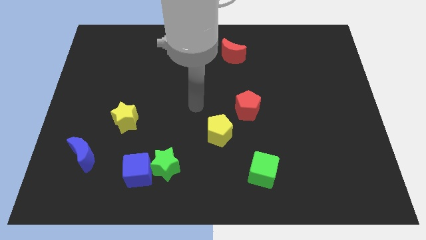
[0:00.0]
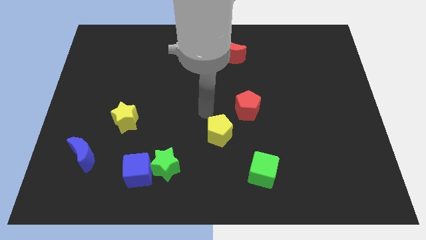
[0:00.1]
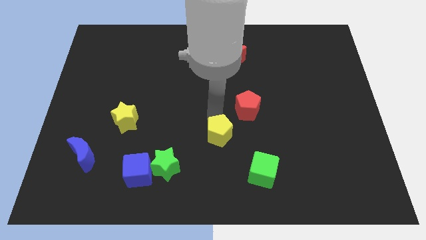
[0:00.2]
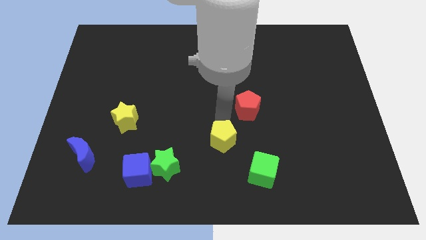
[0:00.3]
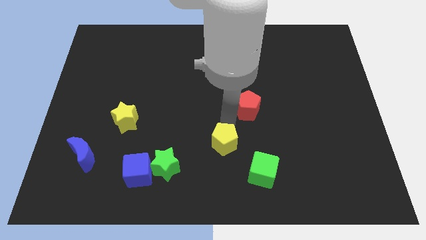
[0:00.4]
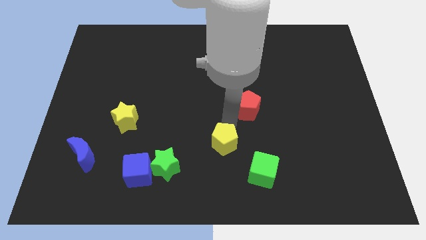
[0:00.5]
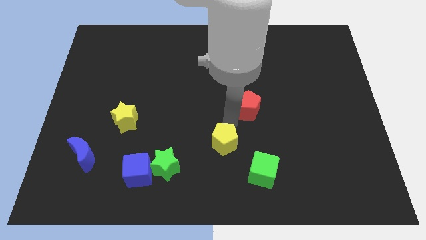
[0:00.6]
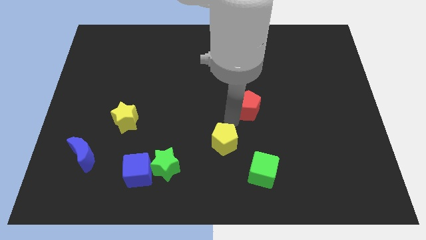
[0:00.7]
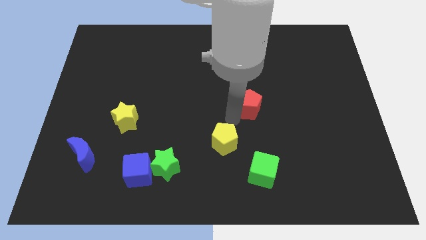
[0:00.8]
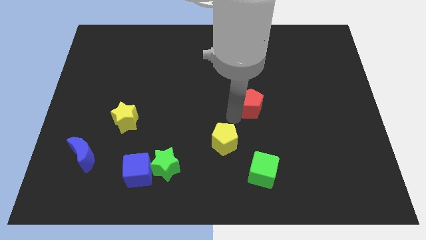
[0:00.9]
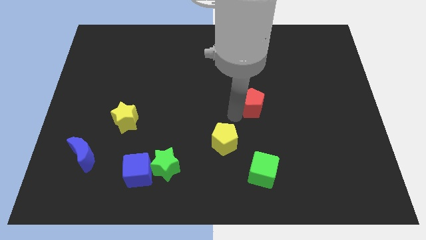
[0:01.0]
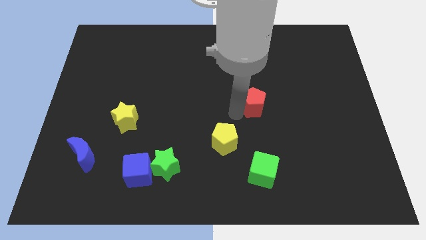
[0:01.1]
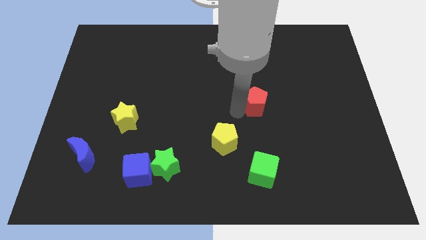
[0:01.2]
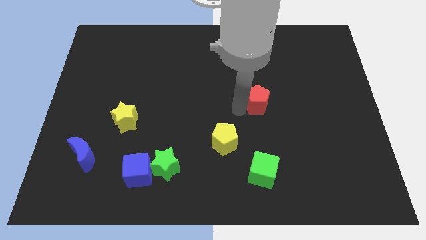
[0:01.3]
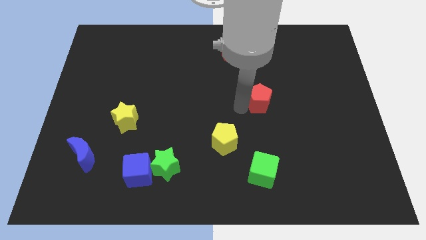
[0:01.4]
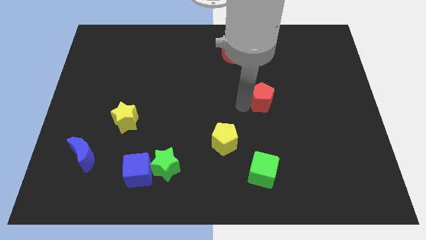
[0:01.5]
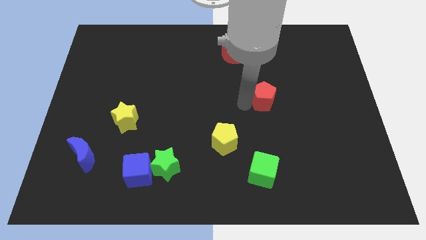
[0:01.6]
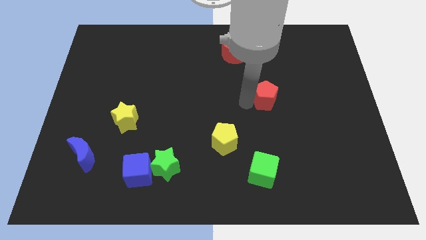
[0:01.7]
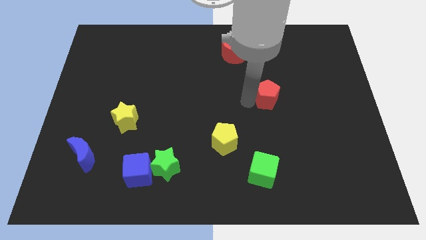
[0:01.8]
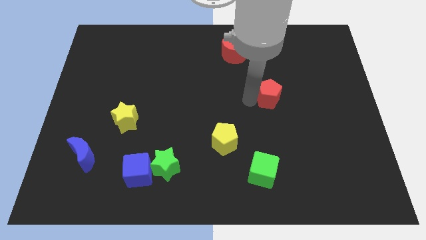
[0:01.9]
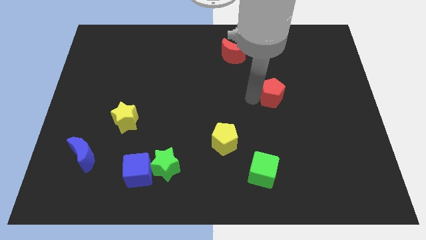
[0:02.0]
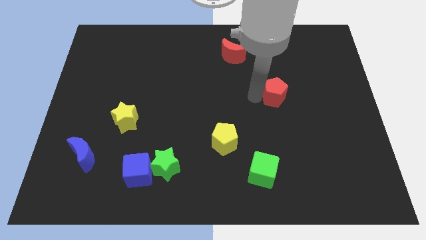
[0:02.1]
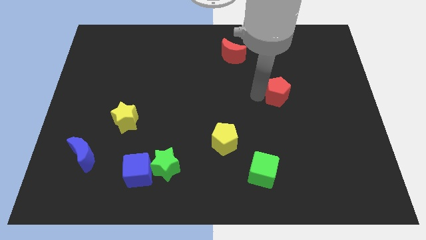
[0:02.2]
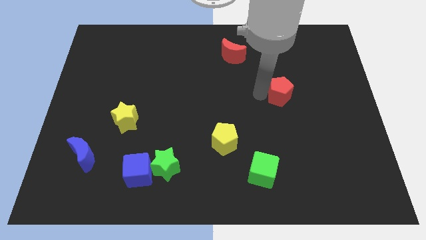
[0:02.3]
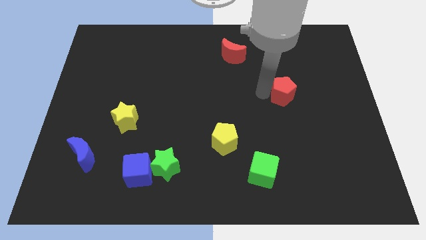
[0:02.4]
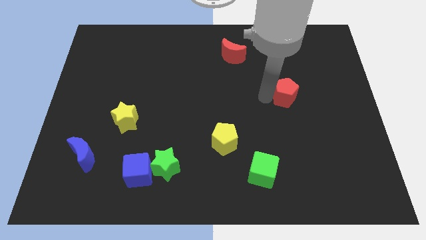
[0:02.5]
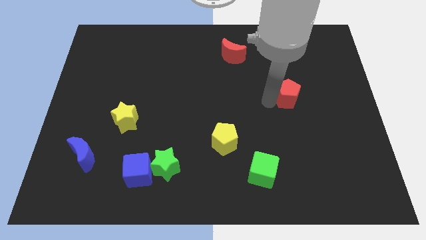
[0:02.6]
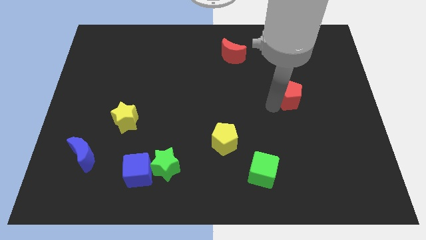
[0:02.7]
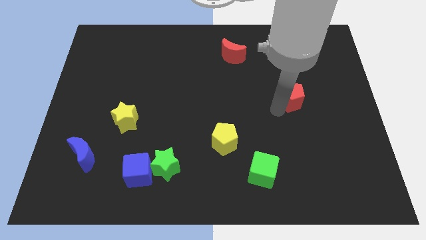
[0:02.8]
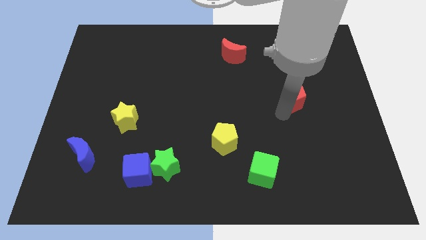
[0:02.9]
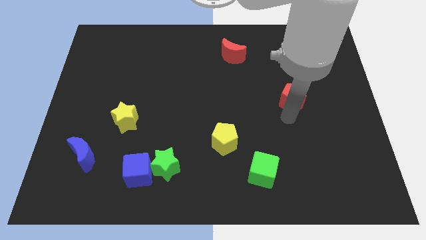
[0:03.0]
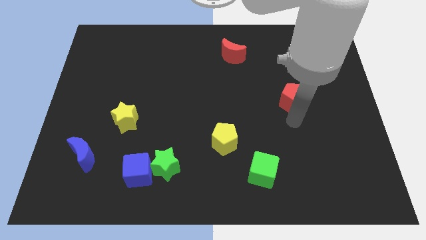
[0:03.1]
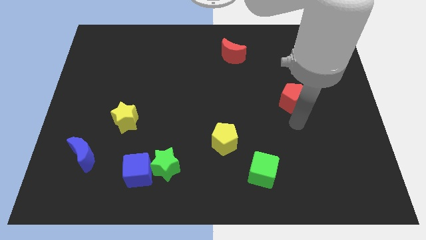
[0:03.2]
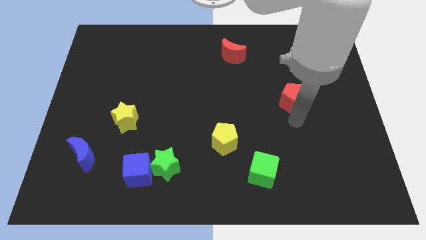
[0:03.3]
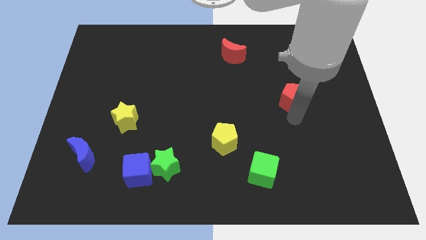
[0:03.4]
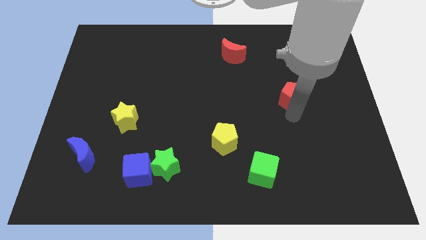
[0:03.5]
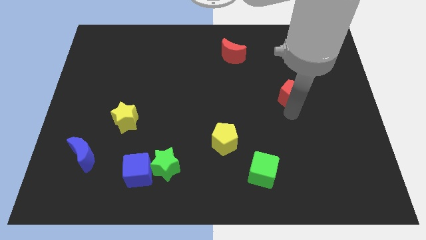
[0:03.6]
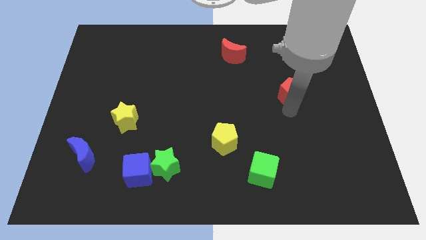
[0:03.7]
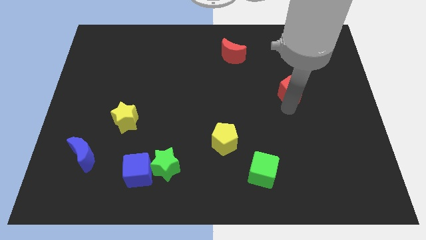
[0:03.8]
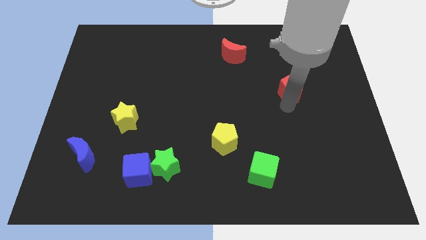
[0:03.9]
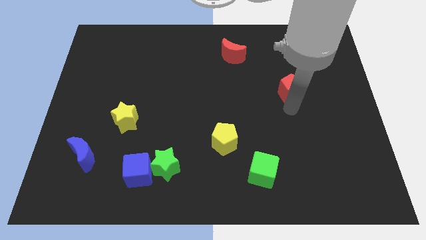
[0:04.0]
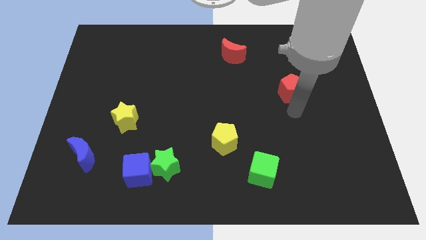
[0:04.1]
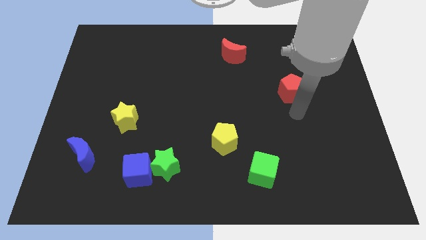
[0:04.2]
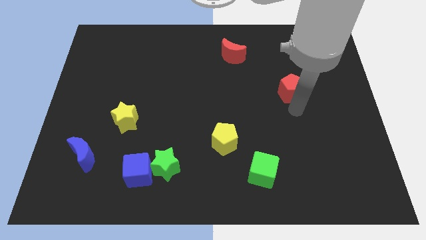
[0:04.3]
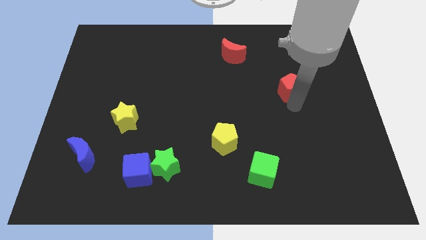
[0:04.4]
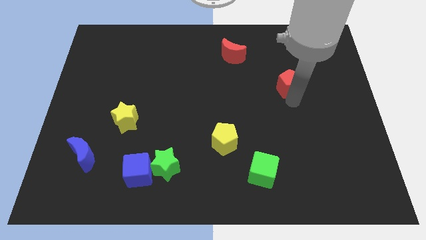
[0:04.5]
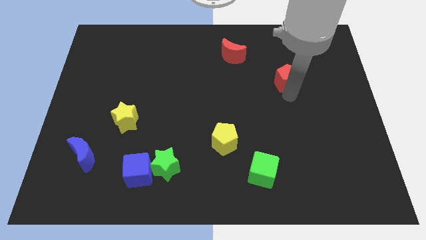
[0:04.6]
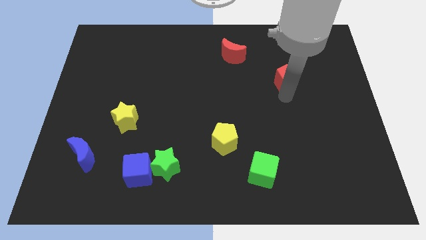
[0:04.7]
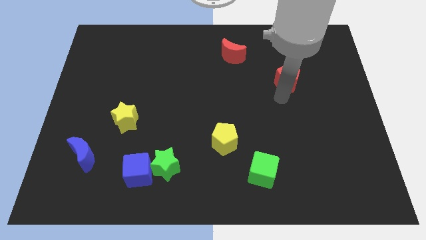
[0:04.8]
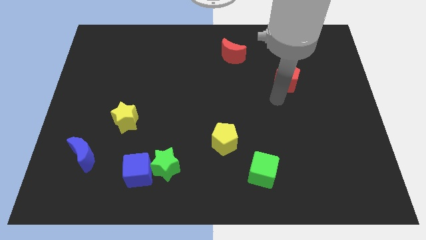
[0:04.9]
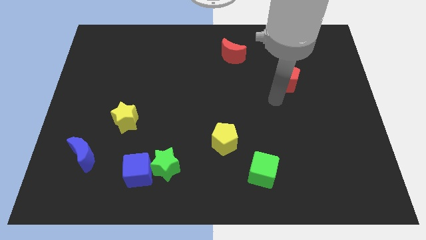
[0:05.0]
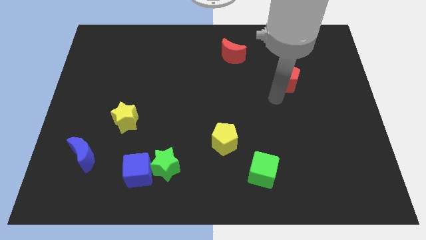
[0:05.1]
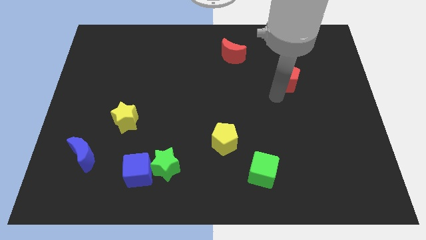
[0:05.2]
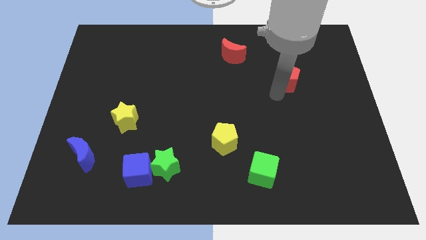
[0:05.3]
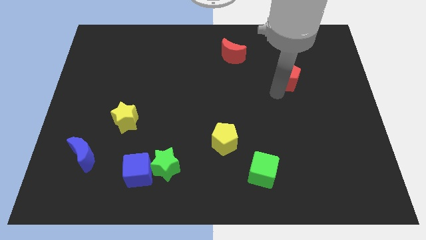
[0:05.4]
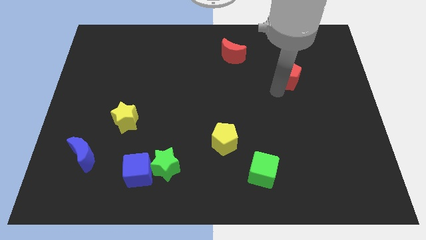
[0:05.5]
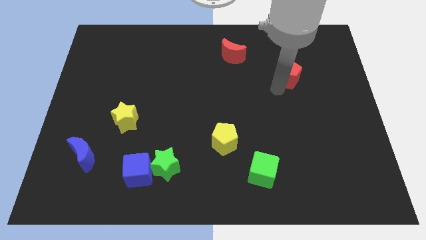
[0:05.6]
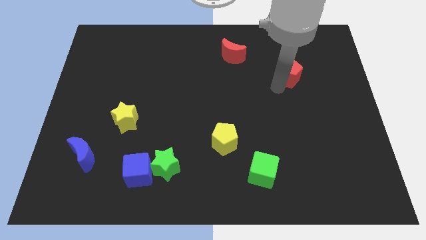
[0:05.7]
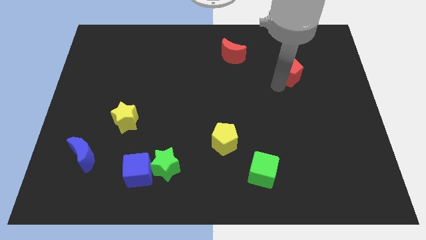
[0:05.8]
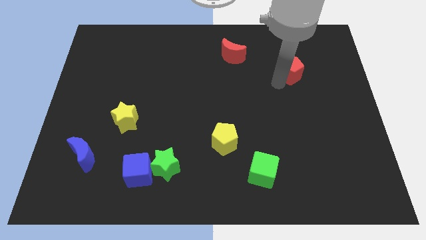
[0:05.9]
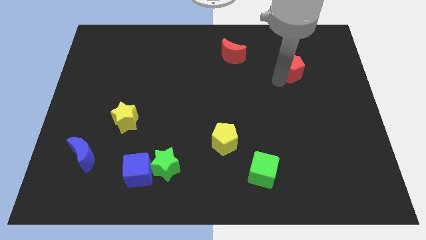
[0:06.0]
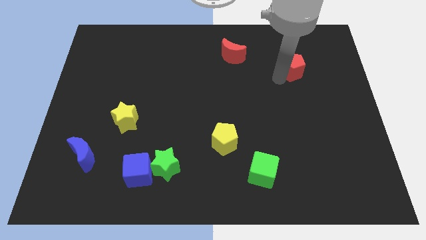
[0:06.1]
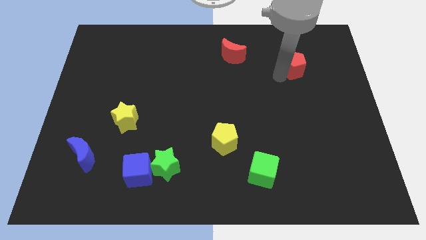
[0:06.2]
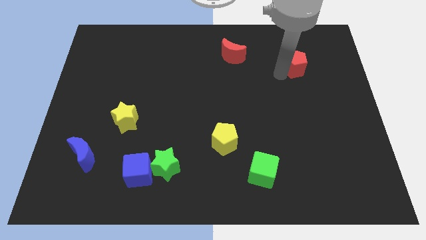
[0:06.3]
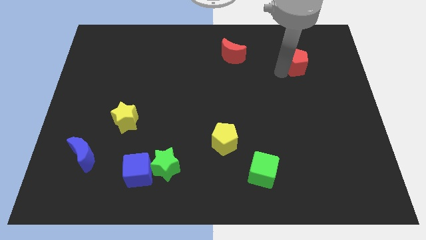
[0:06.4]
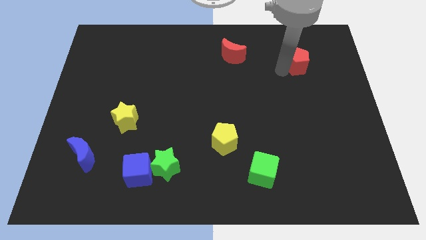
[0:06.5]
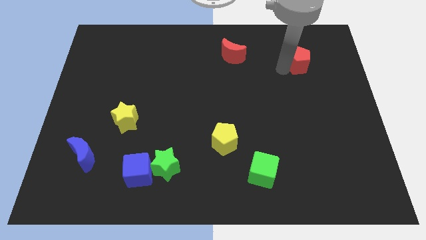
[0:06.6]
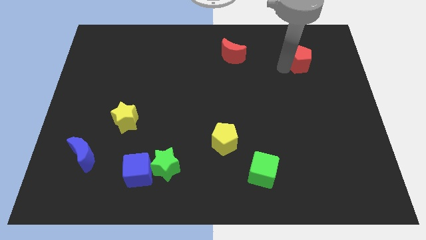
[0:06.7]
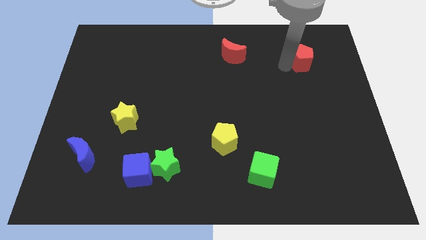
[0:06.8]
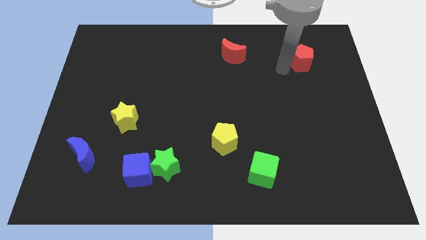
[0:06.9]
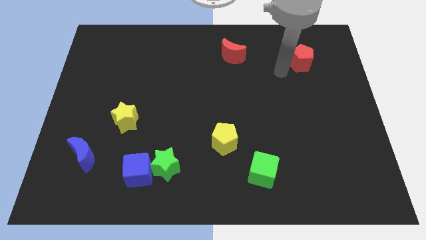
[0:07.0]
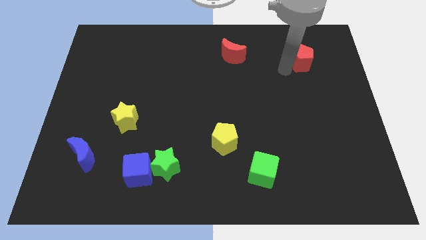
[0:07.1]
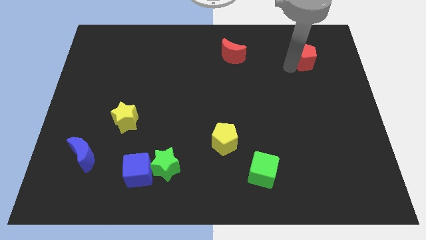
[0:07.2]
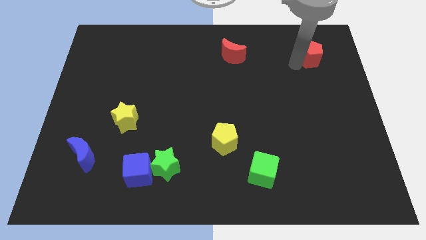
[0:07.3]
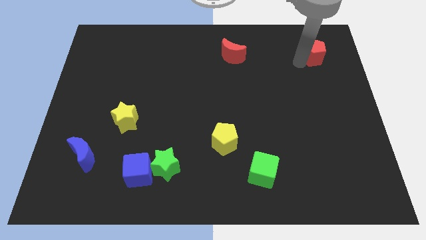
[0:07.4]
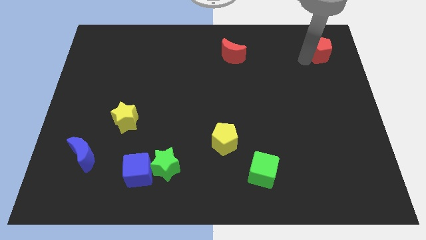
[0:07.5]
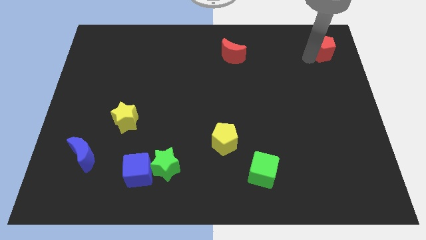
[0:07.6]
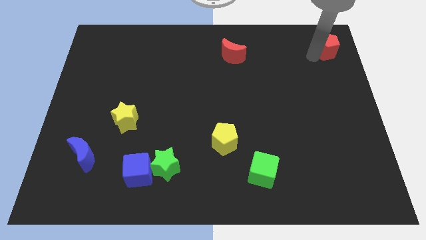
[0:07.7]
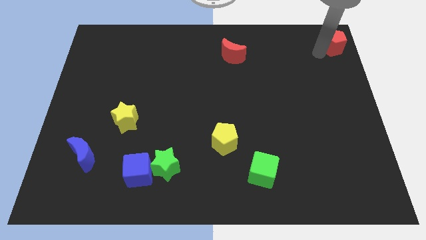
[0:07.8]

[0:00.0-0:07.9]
slide the red pentagon to the top right corner
